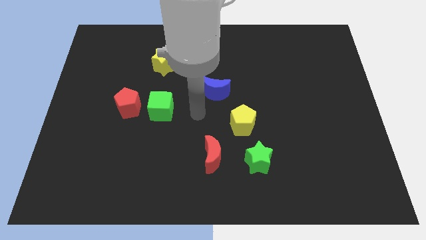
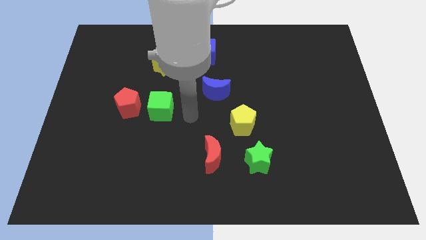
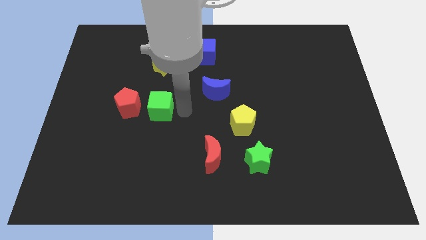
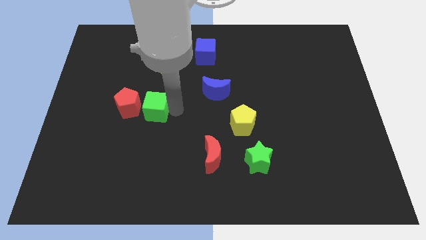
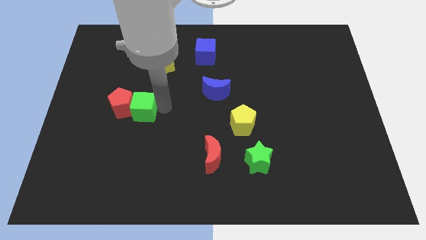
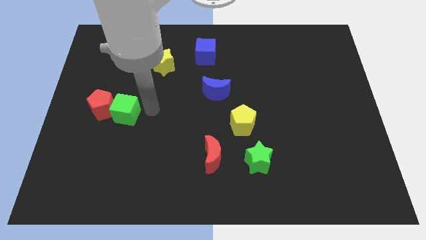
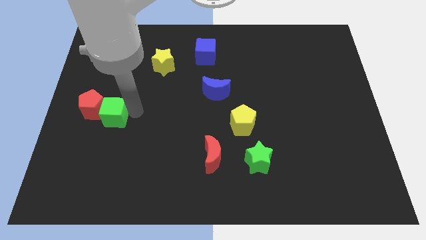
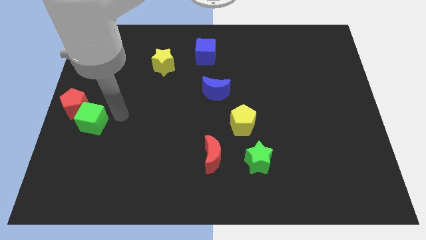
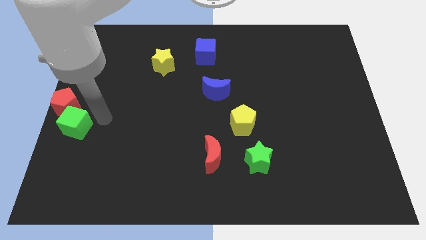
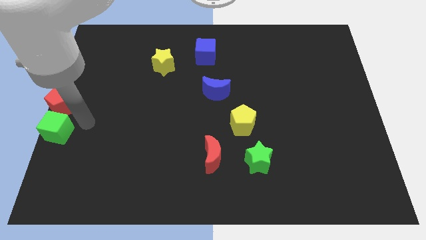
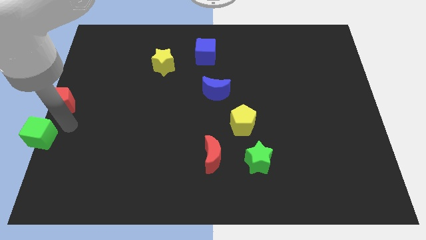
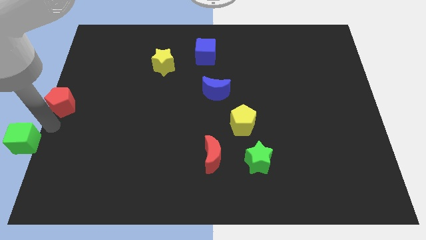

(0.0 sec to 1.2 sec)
separate the red pentagon from the green cube

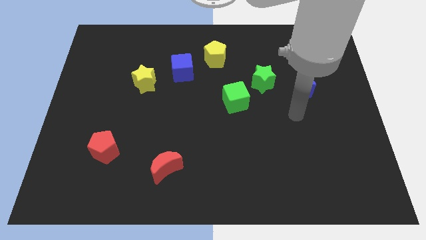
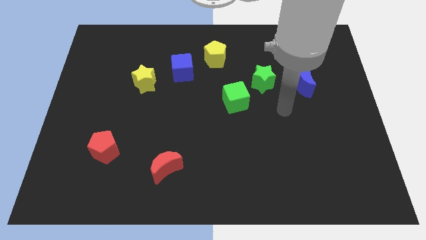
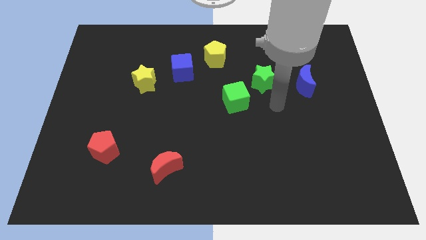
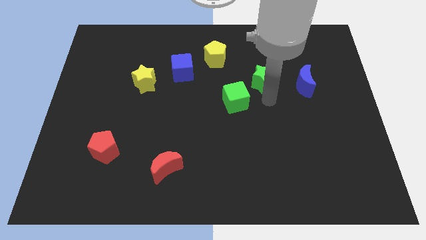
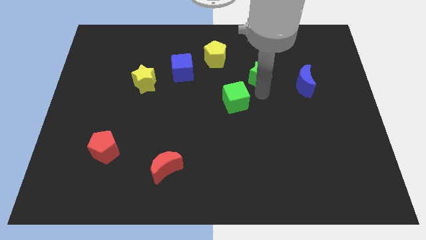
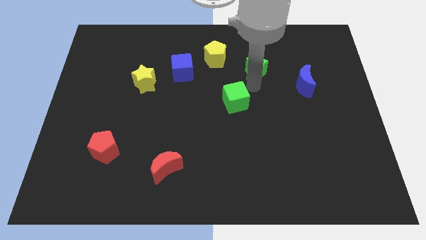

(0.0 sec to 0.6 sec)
move the green cube away from the green star

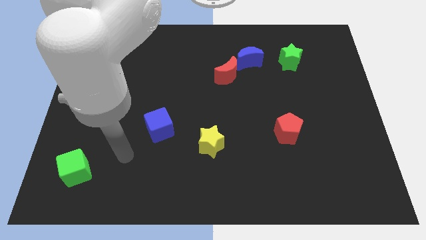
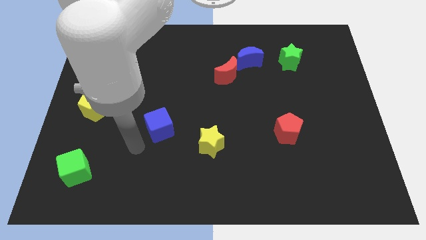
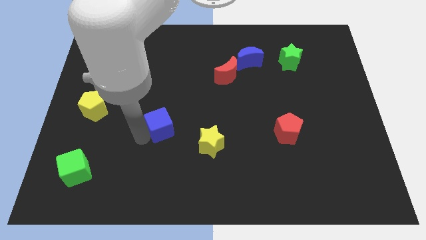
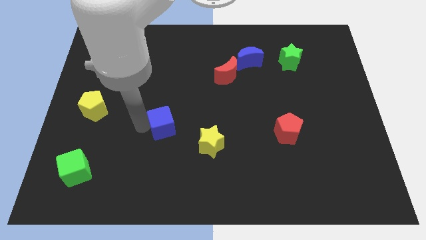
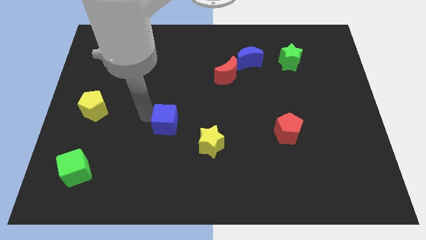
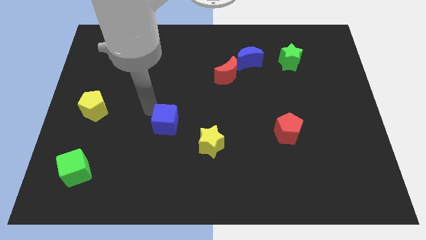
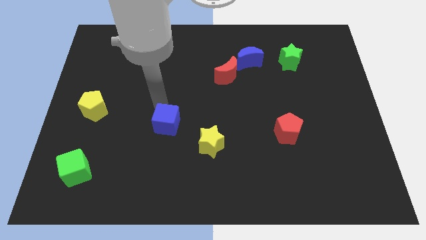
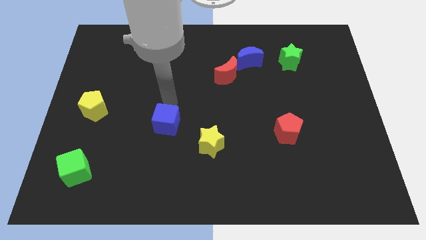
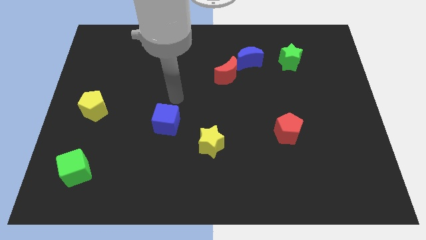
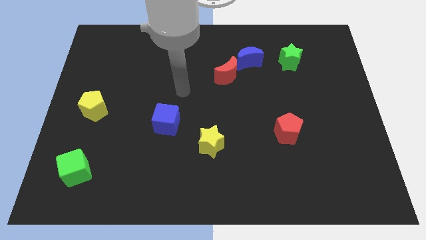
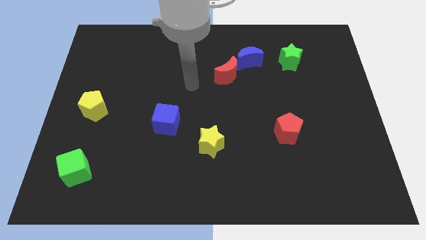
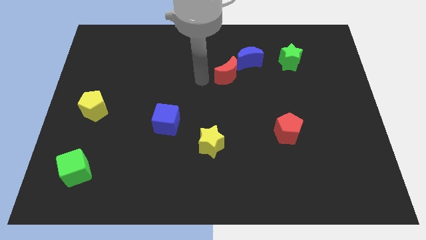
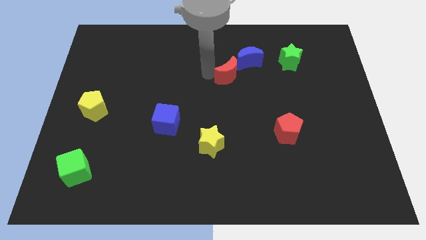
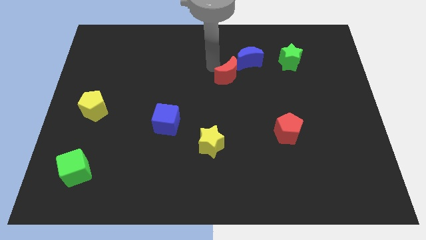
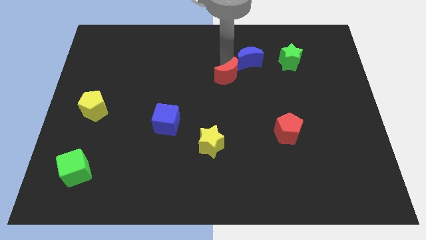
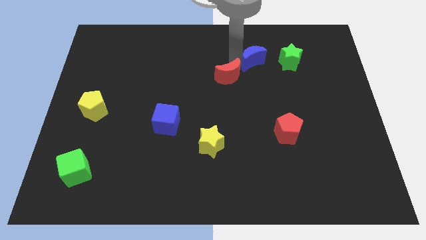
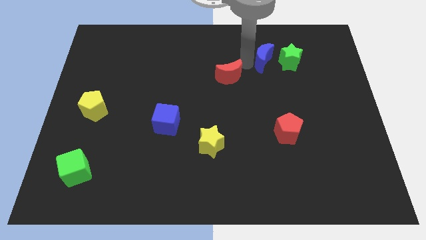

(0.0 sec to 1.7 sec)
move the red moon away from the blue moon

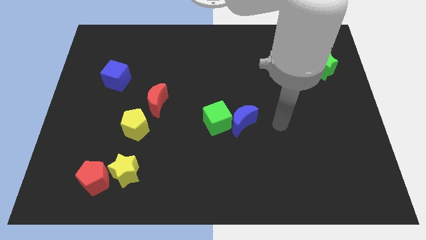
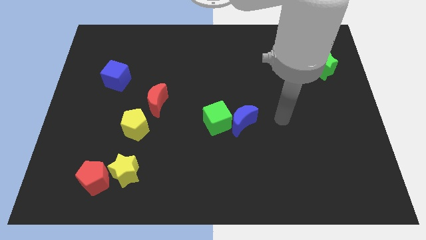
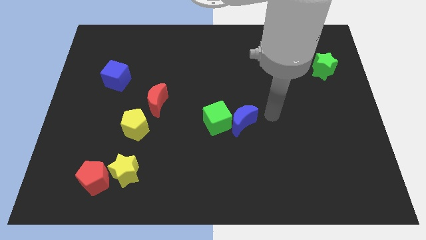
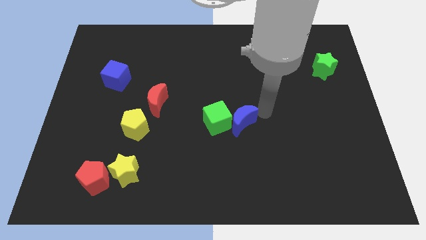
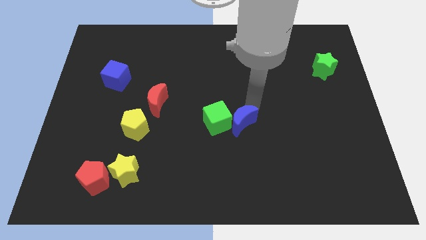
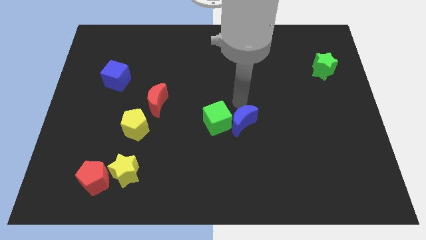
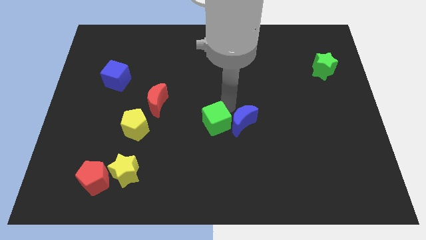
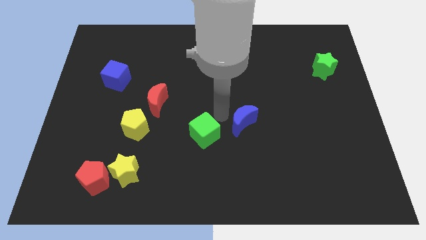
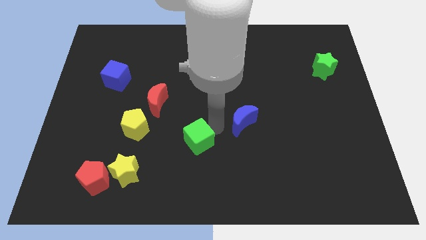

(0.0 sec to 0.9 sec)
separate the blue moon from the green cube

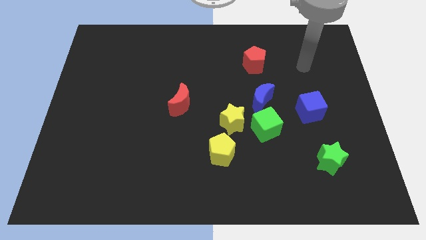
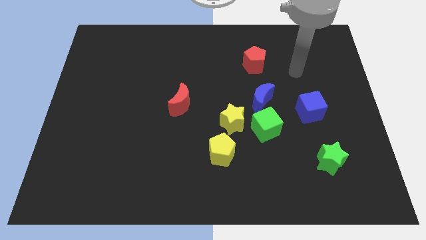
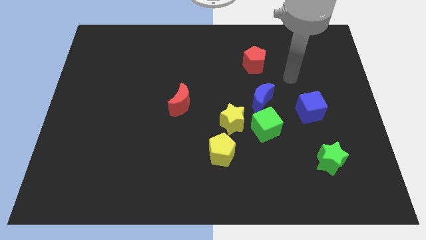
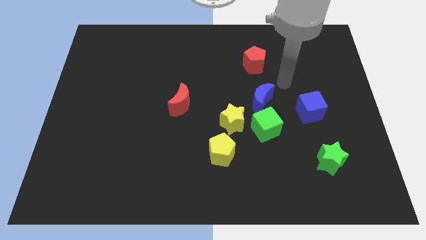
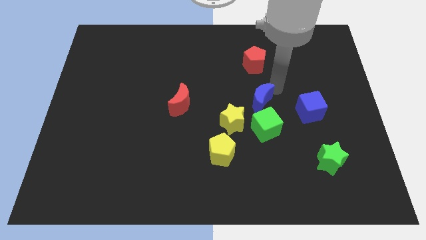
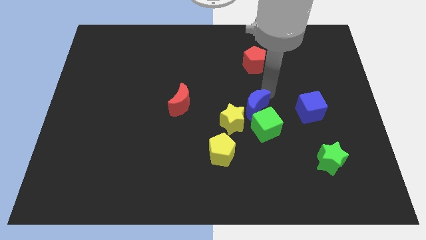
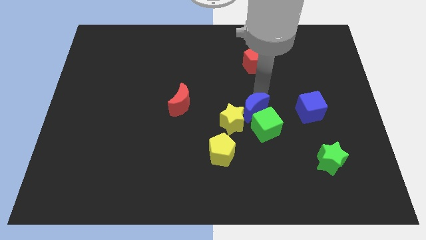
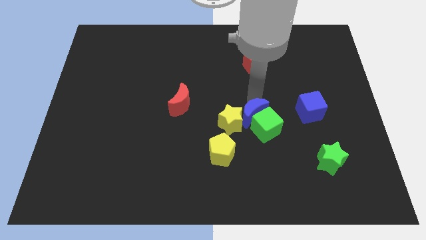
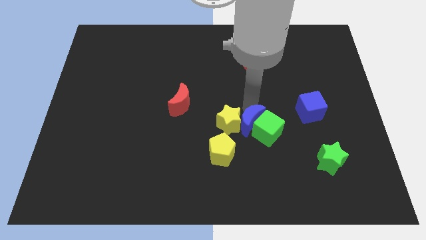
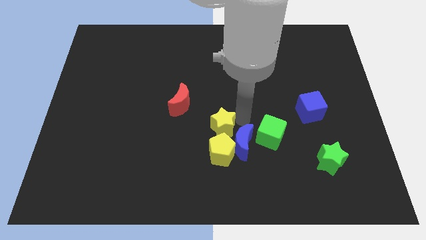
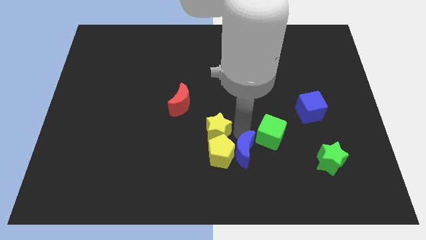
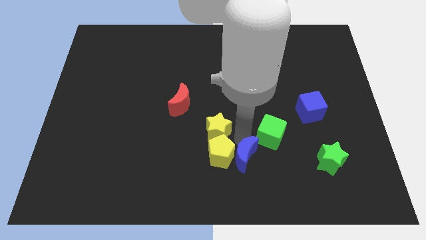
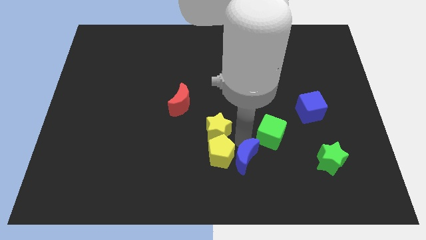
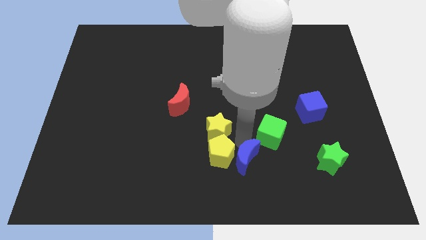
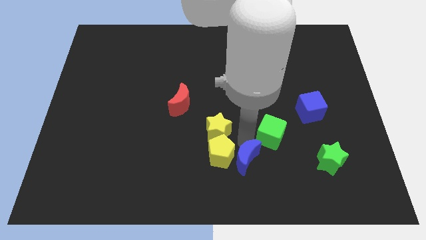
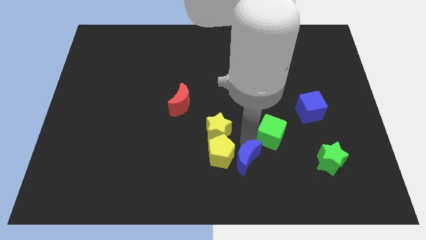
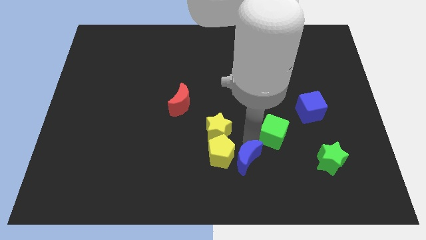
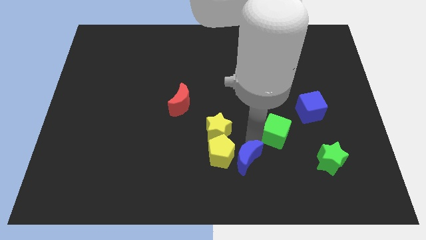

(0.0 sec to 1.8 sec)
move the green cube away from the yellow star and blue moon

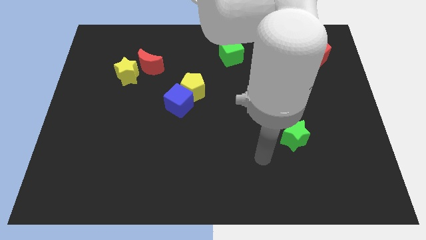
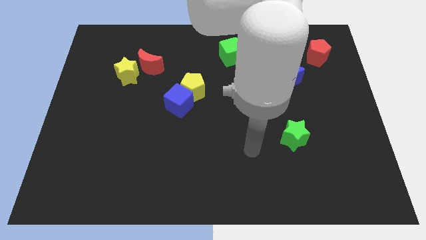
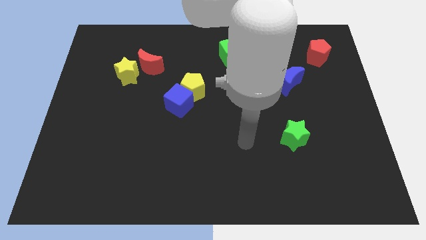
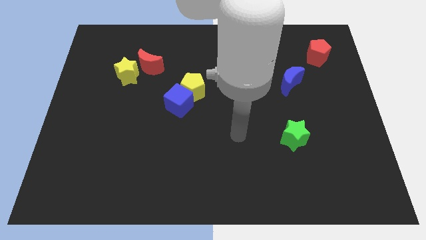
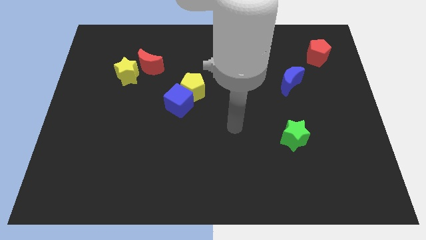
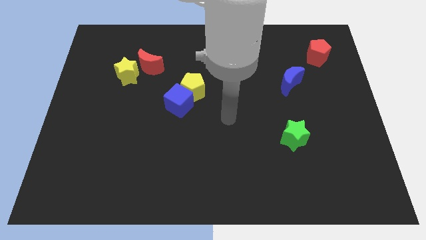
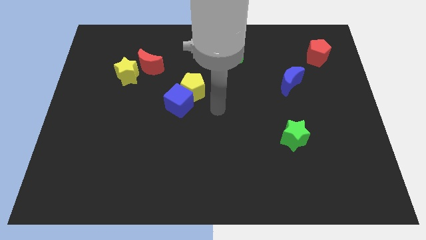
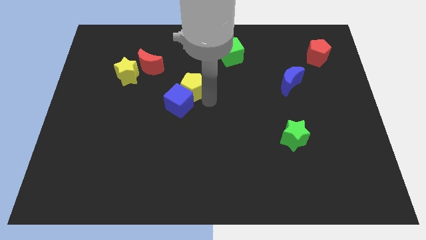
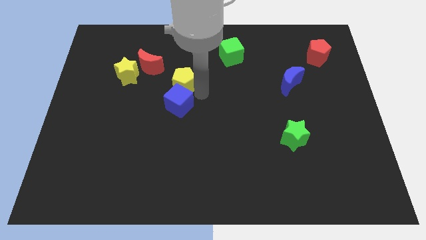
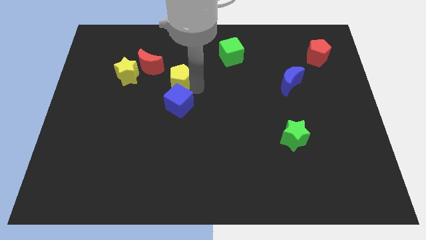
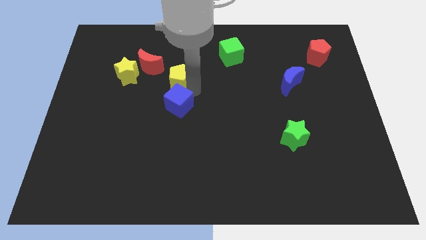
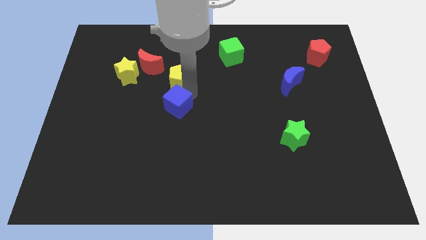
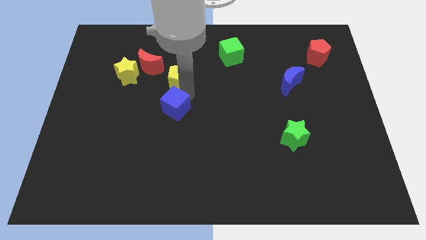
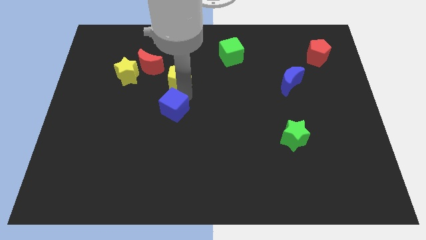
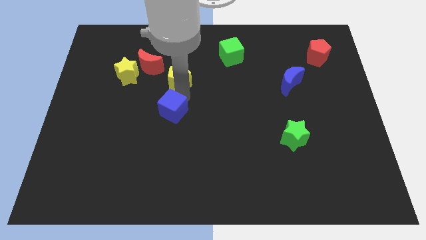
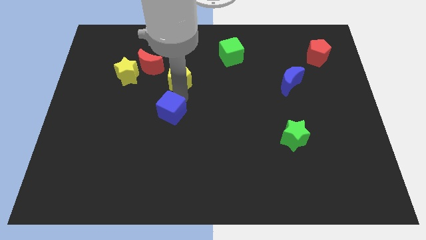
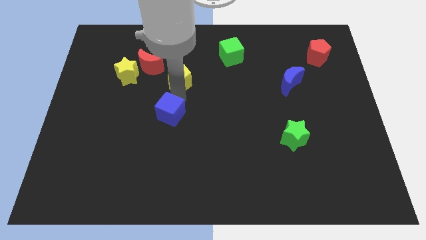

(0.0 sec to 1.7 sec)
move the blue cube away from the yellow pentagon

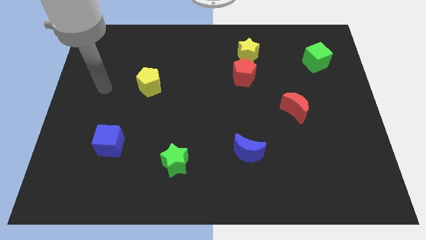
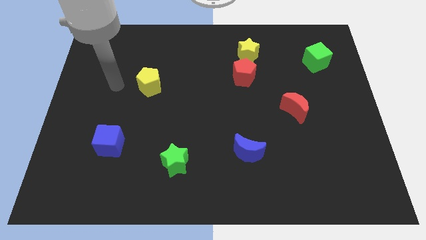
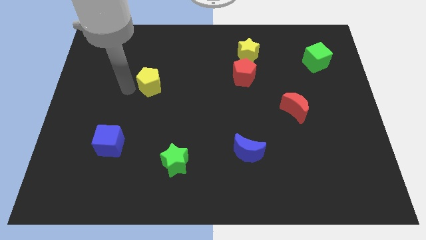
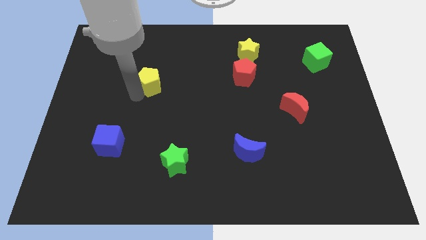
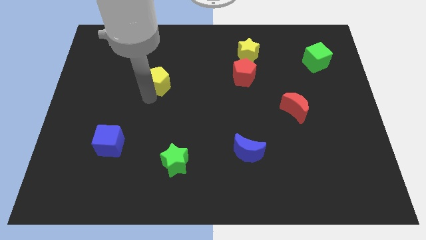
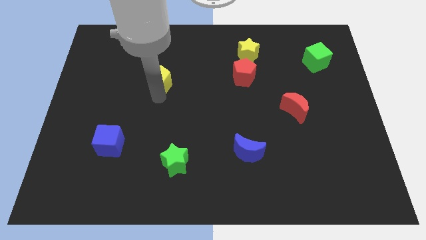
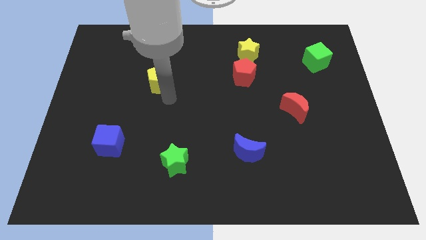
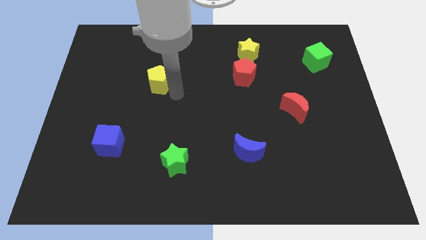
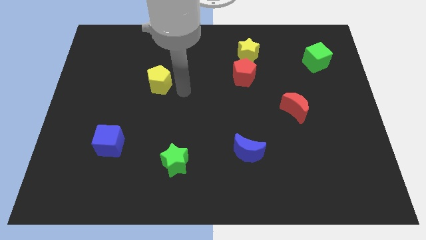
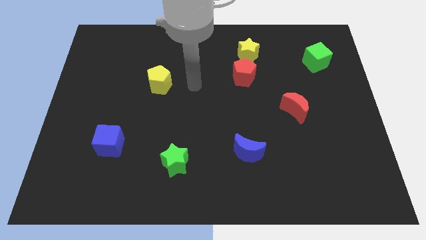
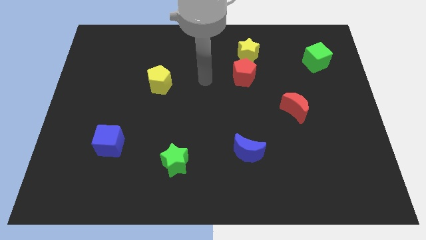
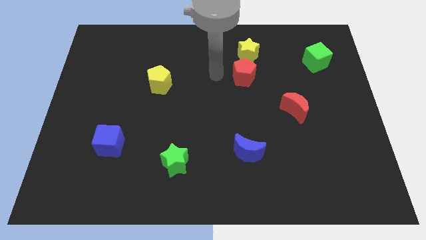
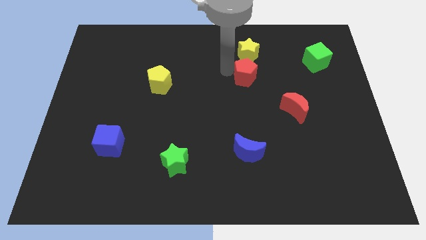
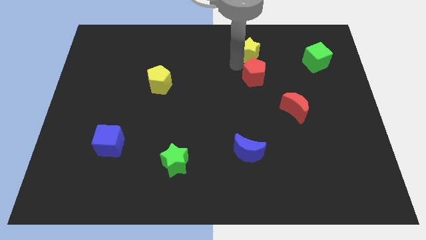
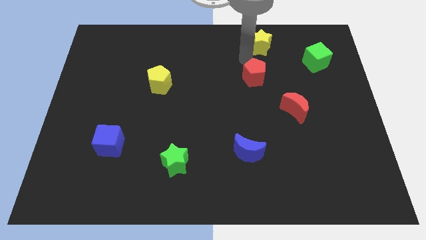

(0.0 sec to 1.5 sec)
move the red pentagon away from the yellow star
